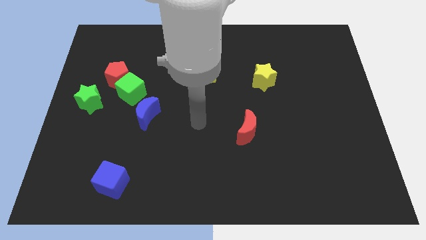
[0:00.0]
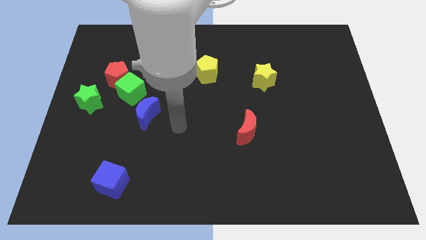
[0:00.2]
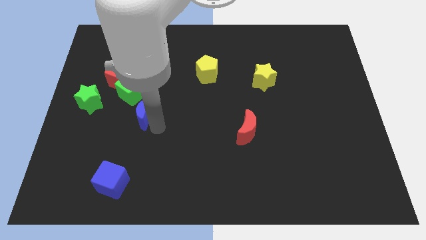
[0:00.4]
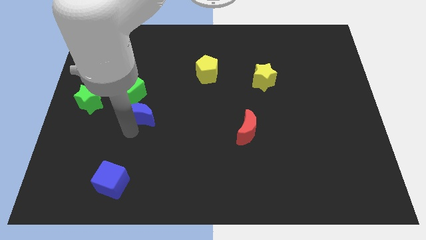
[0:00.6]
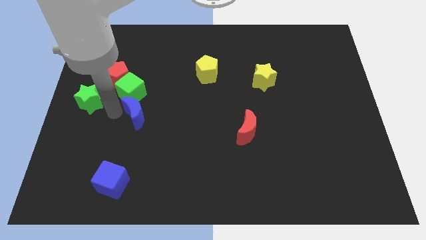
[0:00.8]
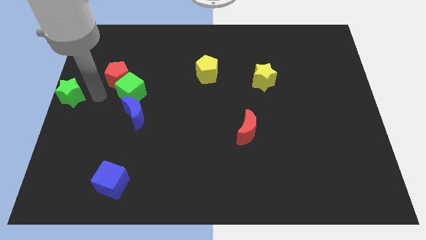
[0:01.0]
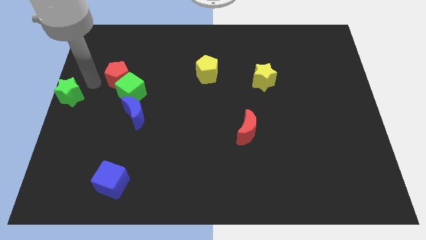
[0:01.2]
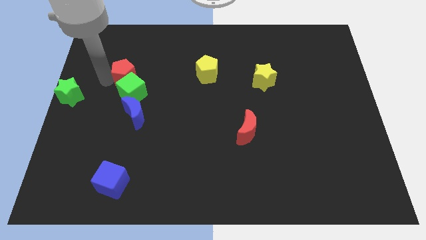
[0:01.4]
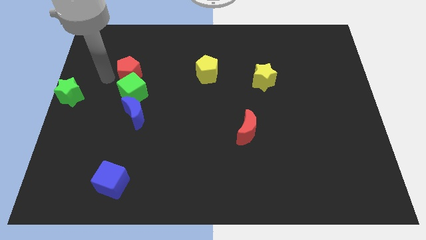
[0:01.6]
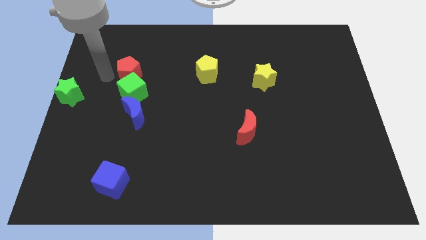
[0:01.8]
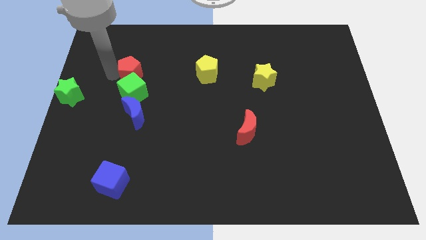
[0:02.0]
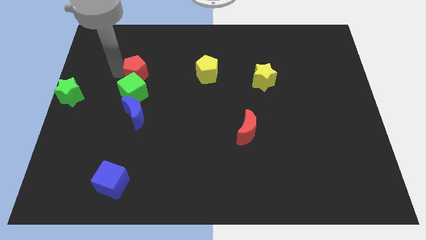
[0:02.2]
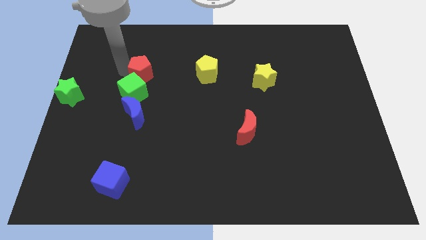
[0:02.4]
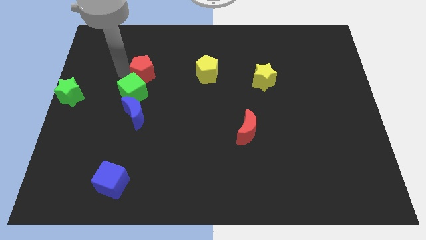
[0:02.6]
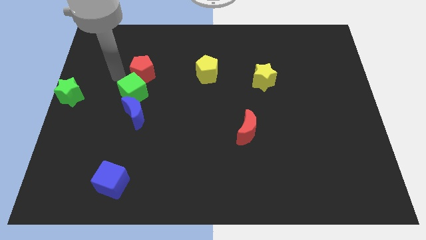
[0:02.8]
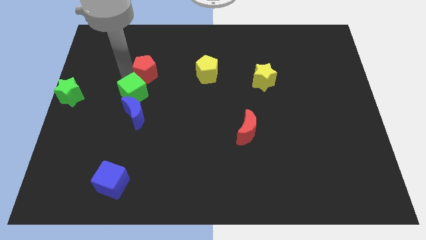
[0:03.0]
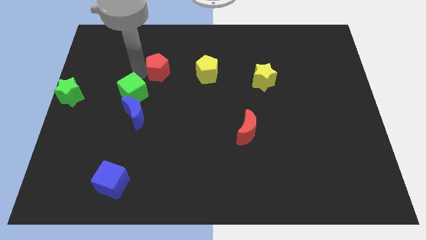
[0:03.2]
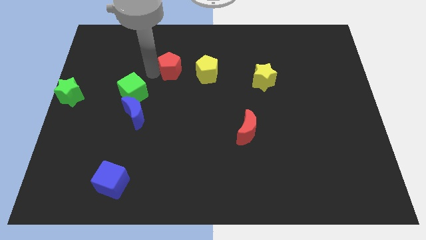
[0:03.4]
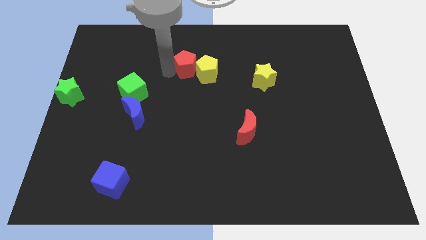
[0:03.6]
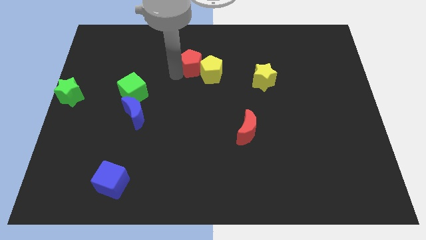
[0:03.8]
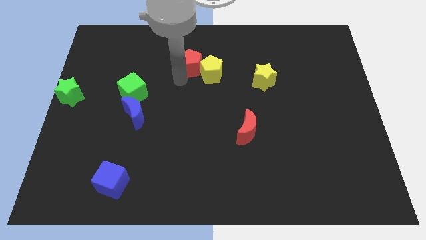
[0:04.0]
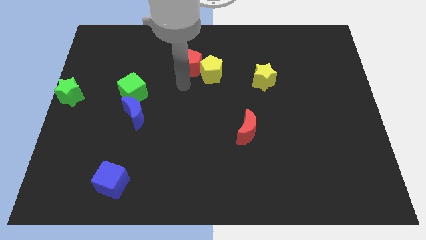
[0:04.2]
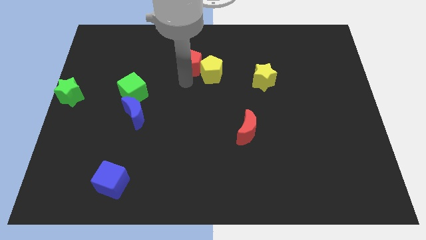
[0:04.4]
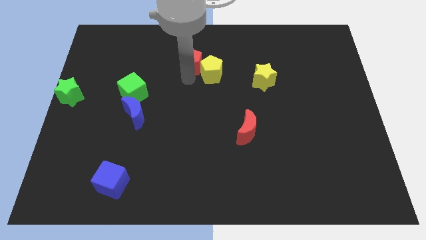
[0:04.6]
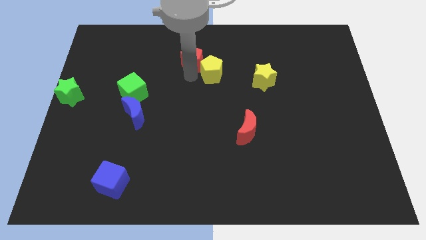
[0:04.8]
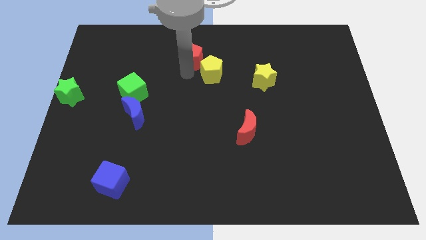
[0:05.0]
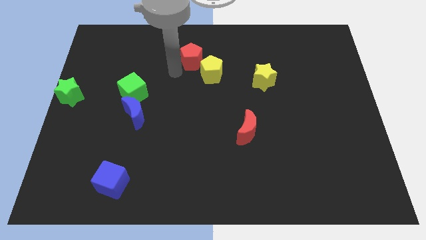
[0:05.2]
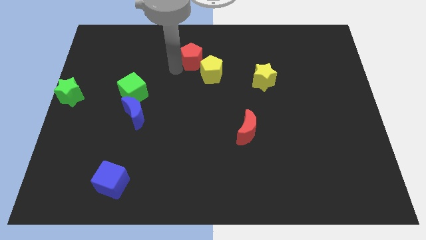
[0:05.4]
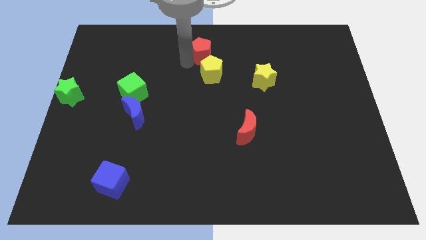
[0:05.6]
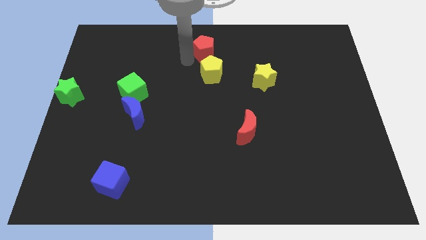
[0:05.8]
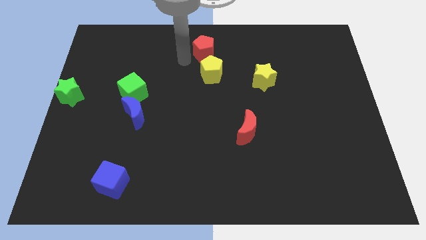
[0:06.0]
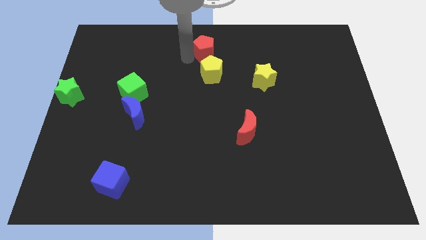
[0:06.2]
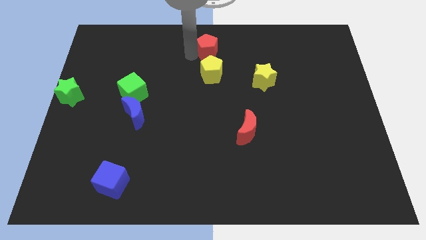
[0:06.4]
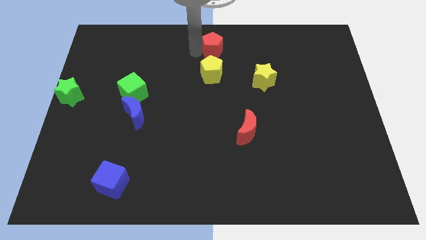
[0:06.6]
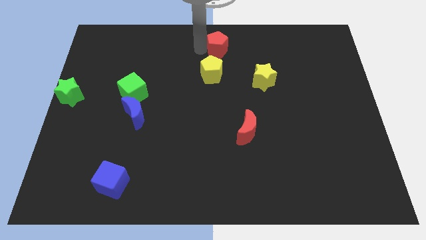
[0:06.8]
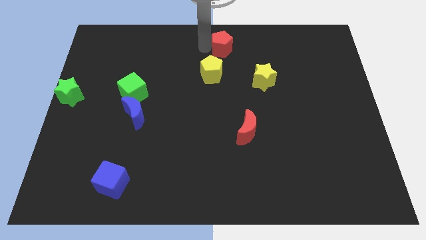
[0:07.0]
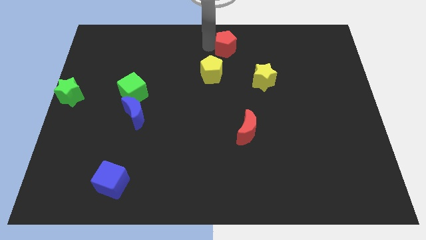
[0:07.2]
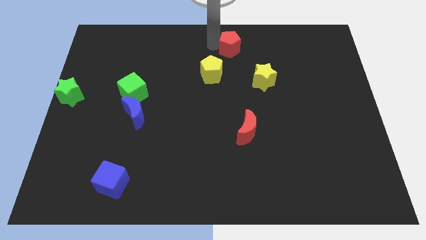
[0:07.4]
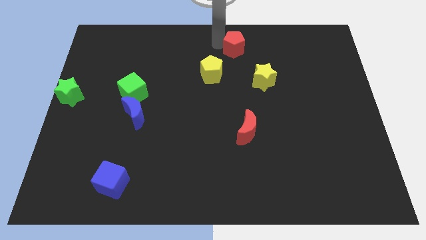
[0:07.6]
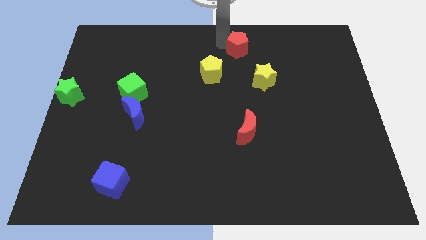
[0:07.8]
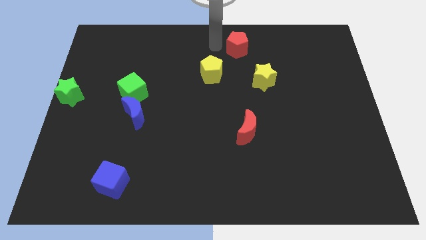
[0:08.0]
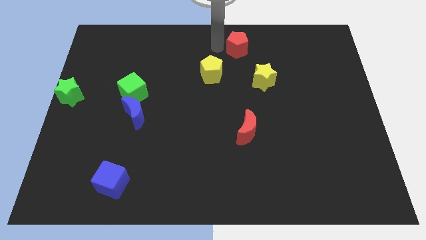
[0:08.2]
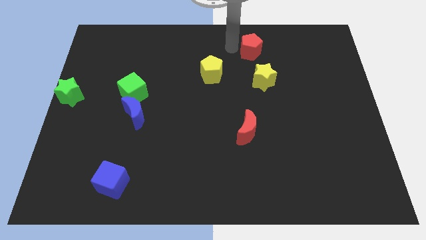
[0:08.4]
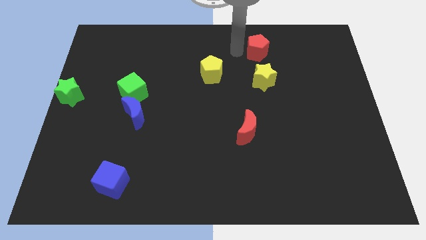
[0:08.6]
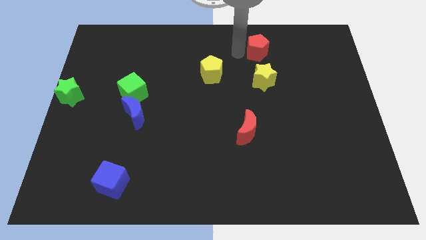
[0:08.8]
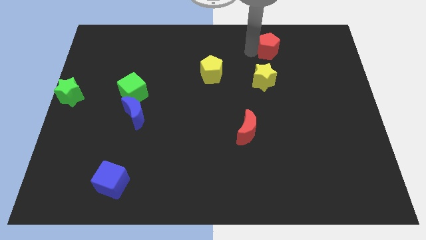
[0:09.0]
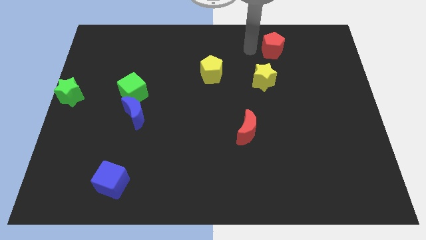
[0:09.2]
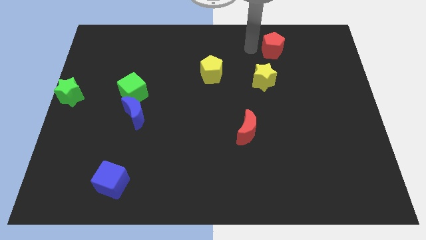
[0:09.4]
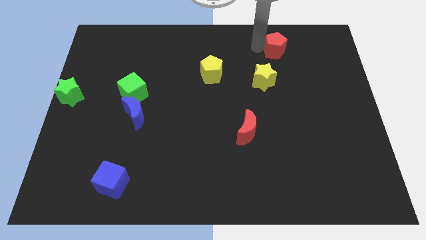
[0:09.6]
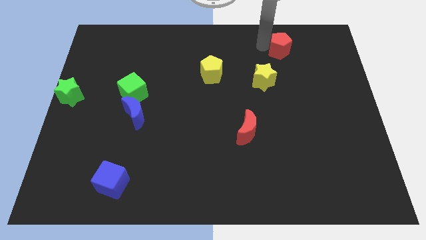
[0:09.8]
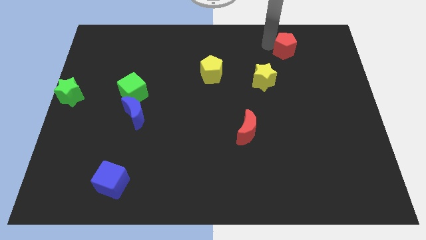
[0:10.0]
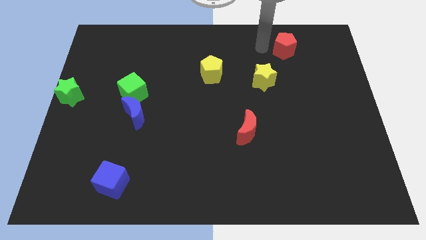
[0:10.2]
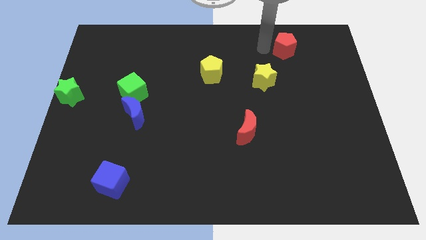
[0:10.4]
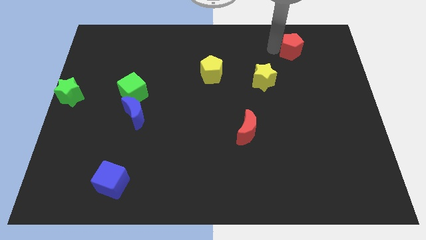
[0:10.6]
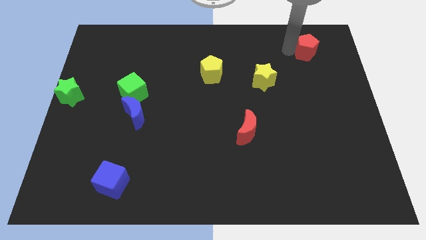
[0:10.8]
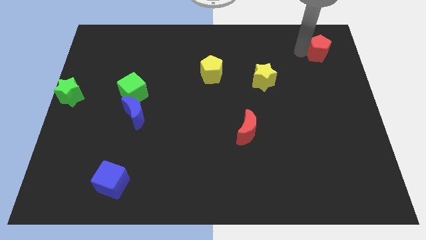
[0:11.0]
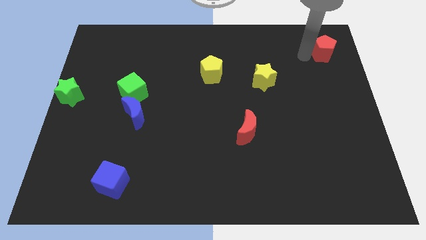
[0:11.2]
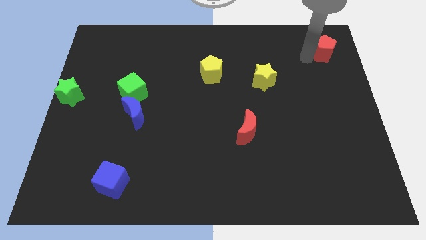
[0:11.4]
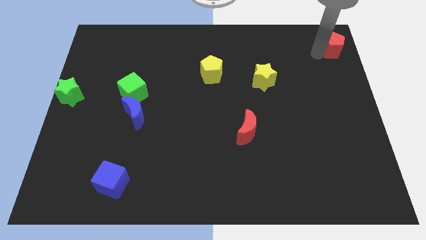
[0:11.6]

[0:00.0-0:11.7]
put the red pentagon to the top right

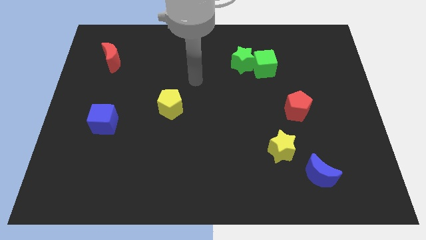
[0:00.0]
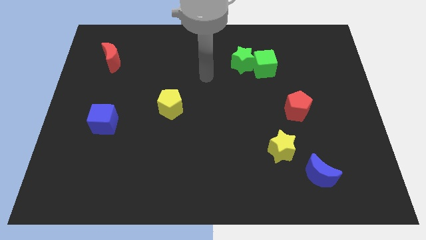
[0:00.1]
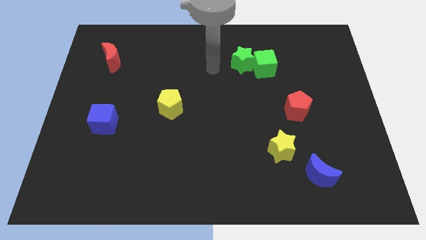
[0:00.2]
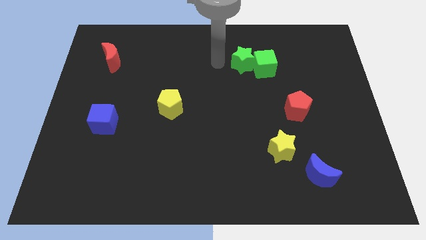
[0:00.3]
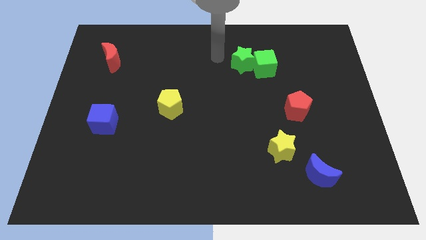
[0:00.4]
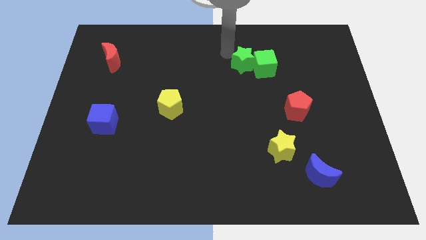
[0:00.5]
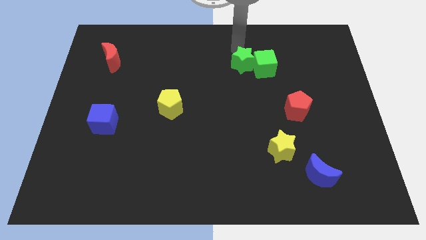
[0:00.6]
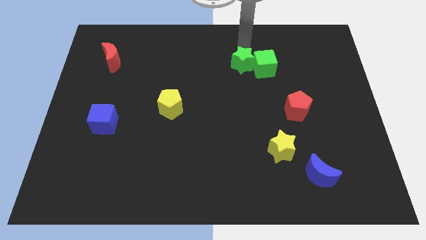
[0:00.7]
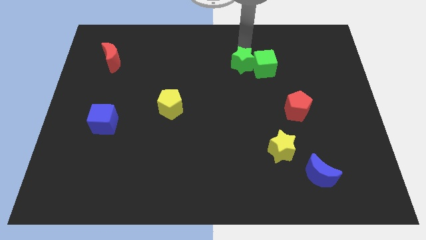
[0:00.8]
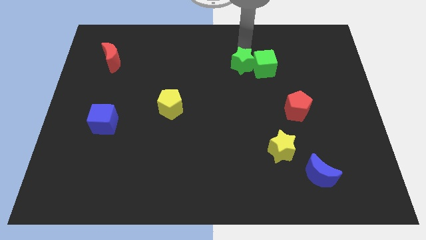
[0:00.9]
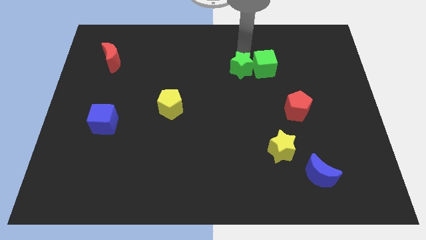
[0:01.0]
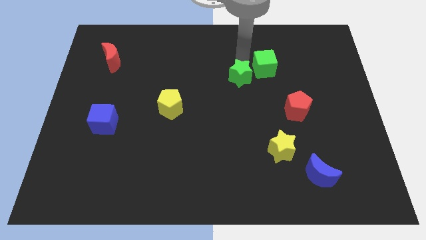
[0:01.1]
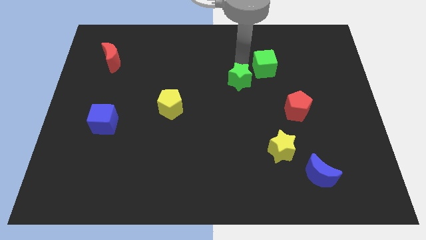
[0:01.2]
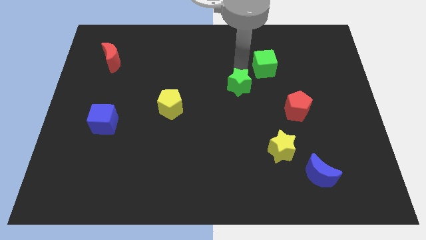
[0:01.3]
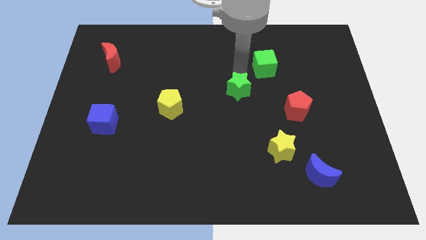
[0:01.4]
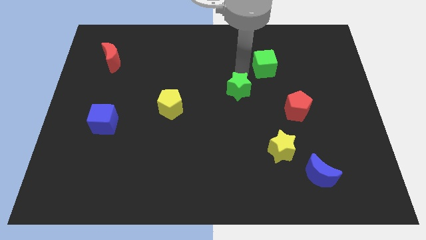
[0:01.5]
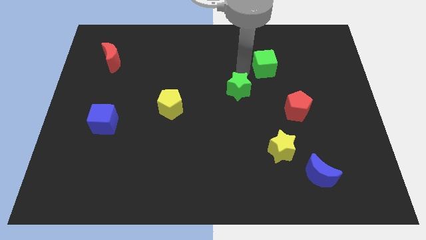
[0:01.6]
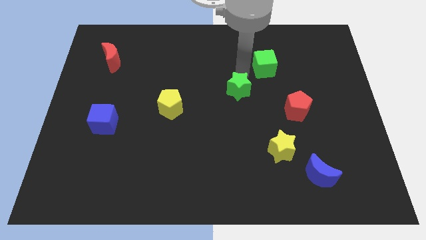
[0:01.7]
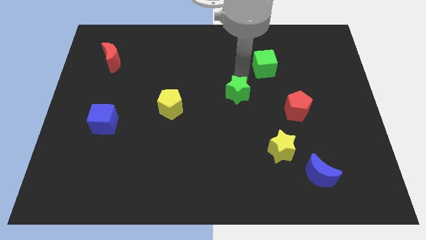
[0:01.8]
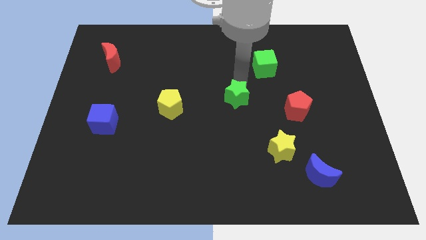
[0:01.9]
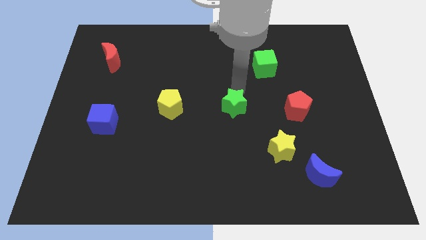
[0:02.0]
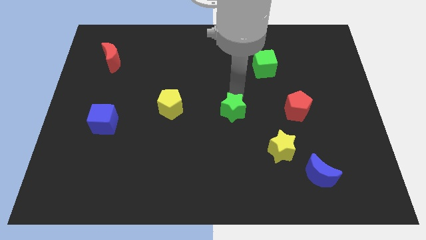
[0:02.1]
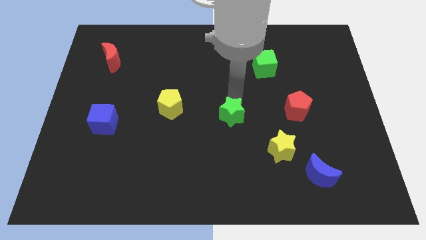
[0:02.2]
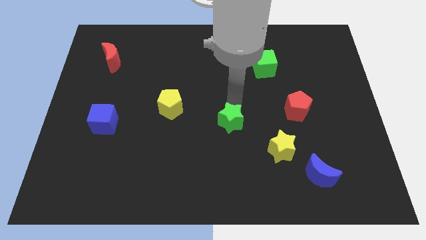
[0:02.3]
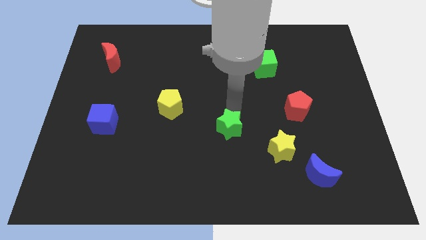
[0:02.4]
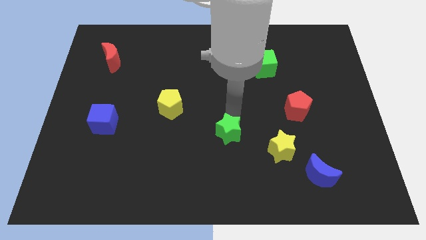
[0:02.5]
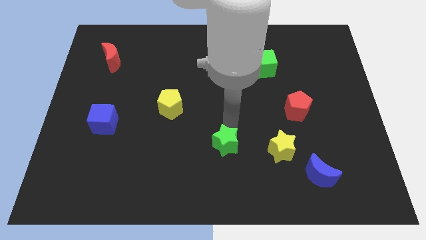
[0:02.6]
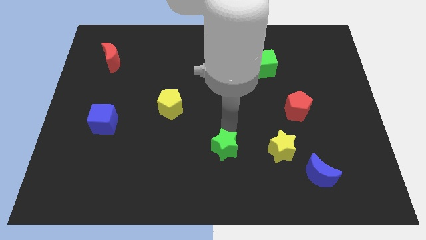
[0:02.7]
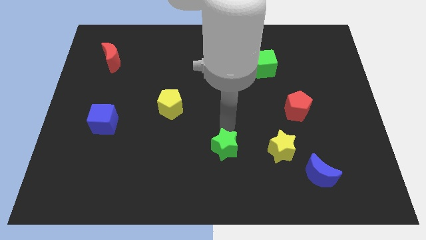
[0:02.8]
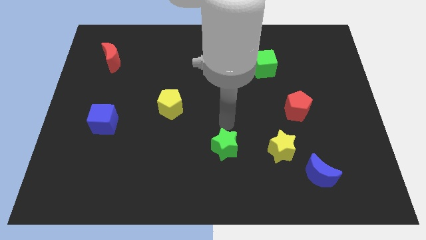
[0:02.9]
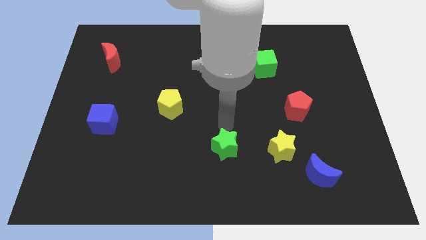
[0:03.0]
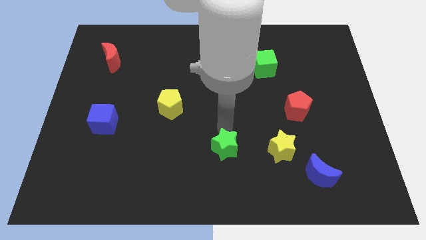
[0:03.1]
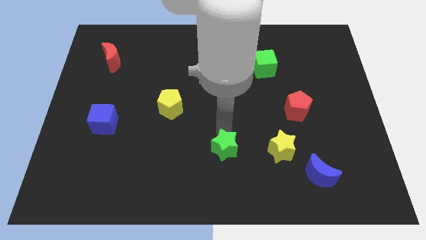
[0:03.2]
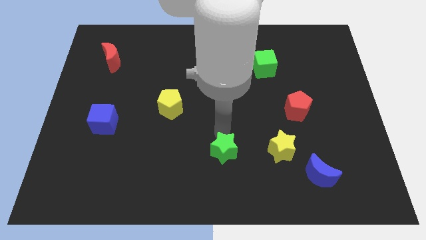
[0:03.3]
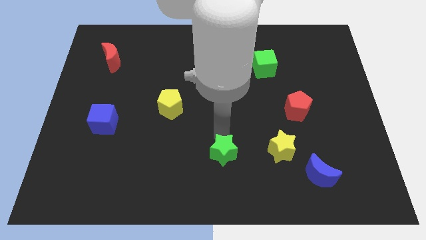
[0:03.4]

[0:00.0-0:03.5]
put the green star to the bottom
